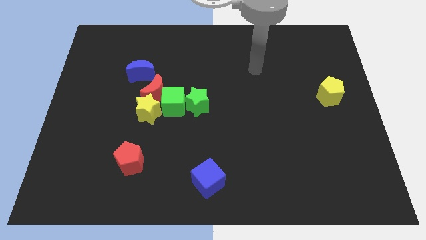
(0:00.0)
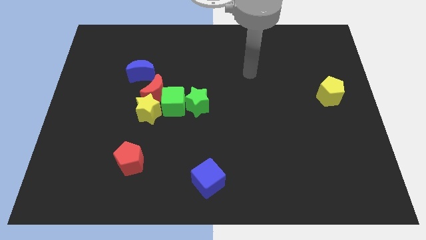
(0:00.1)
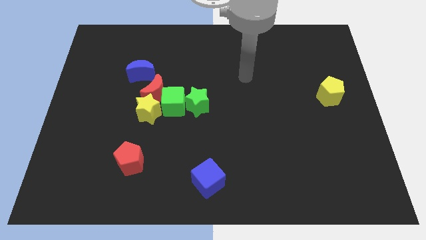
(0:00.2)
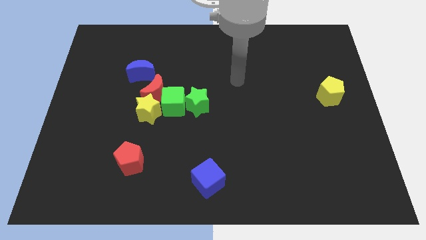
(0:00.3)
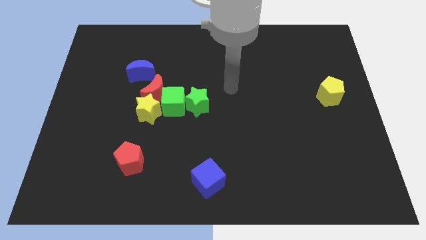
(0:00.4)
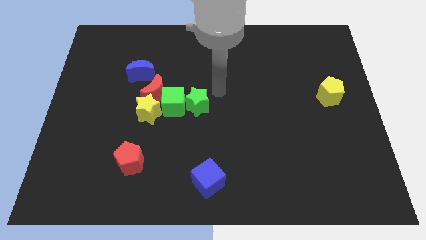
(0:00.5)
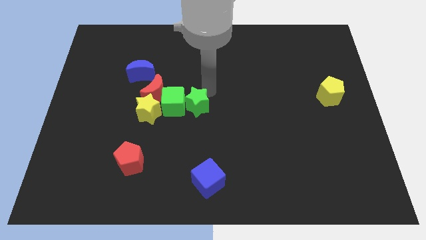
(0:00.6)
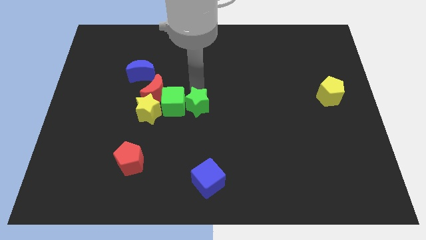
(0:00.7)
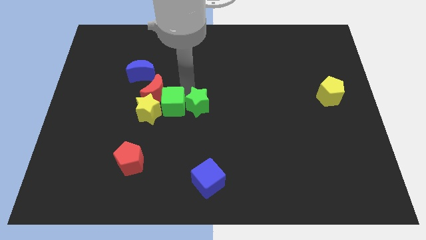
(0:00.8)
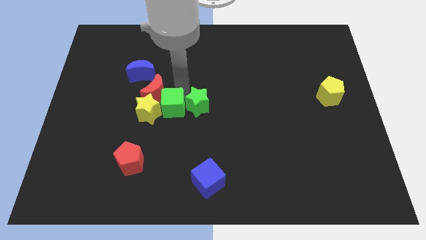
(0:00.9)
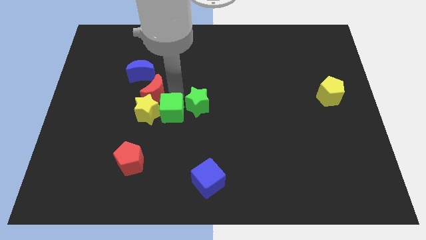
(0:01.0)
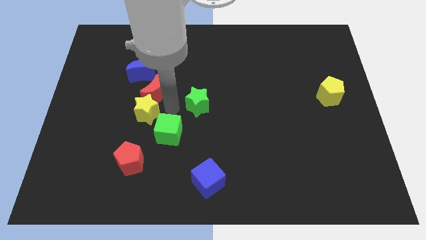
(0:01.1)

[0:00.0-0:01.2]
separate the green star from the green cube

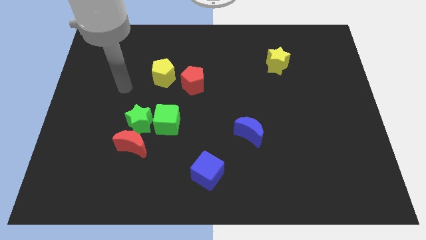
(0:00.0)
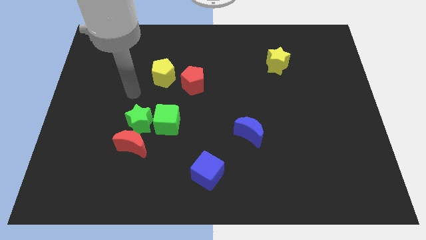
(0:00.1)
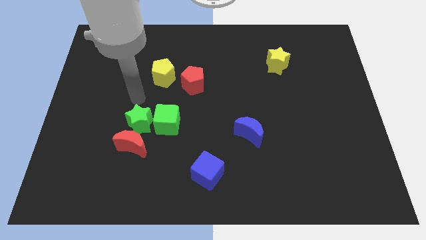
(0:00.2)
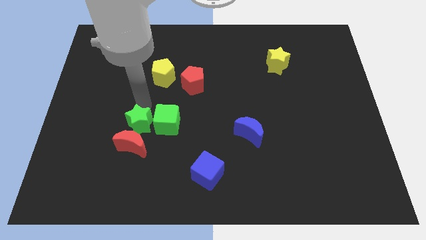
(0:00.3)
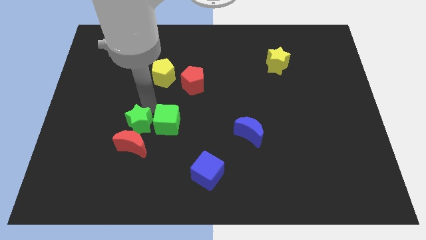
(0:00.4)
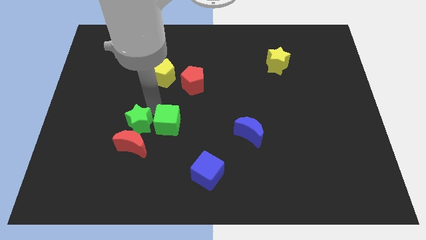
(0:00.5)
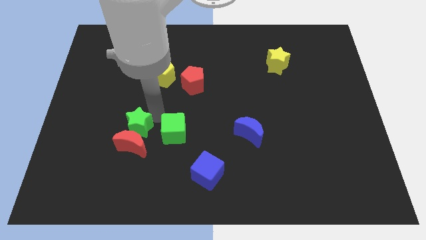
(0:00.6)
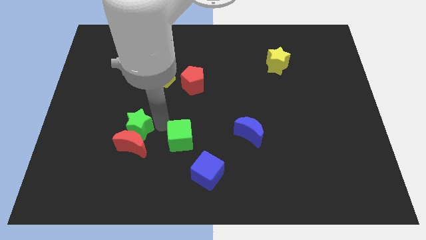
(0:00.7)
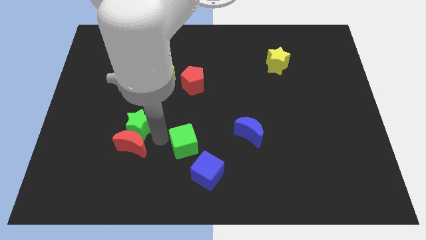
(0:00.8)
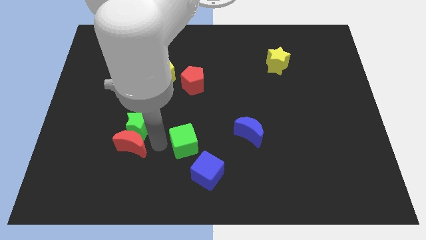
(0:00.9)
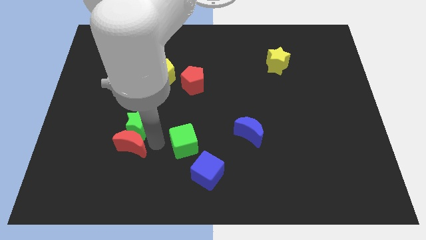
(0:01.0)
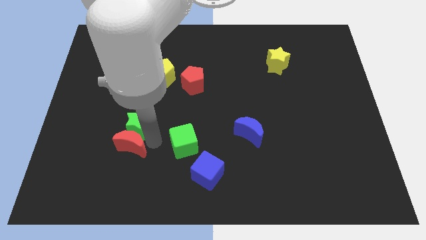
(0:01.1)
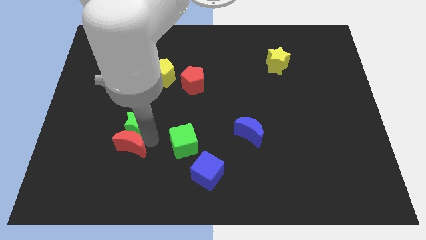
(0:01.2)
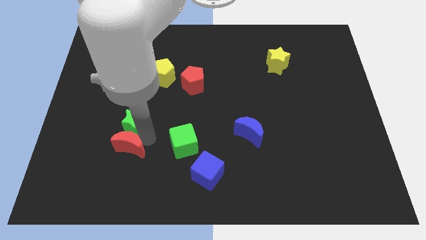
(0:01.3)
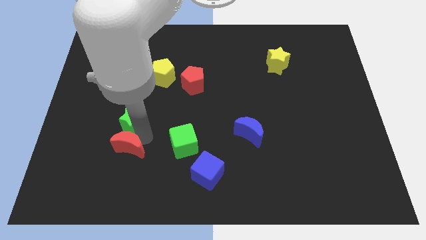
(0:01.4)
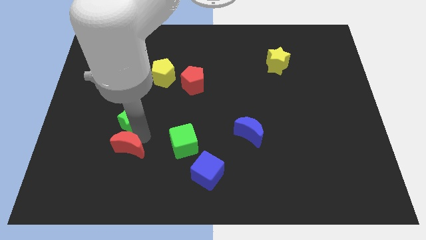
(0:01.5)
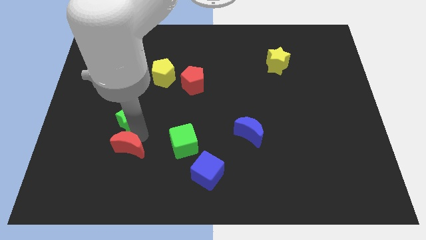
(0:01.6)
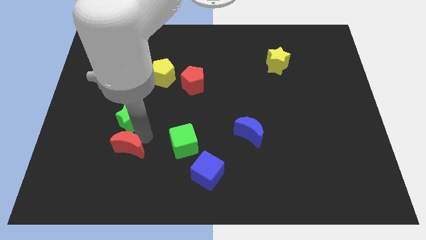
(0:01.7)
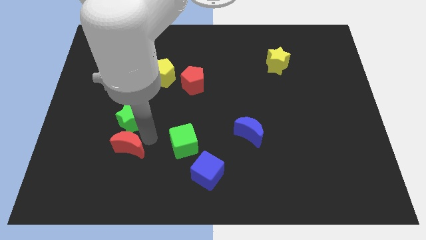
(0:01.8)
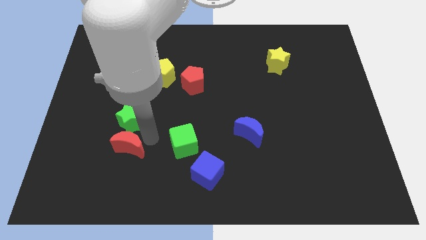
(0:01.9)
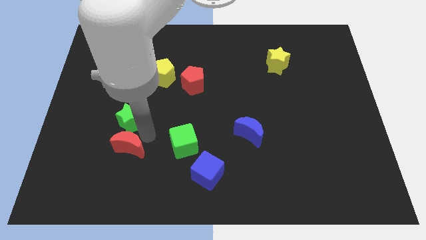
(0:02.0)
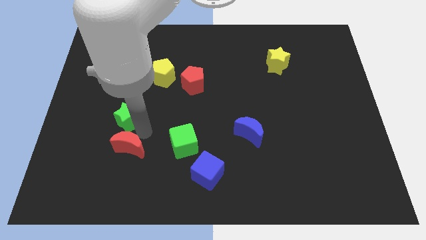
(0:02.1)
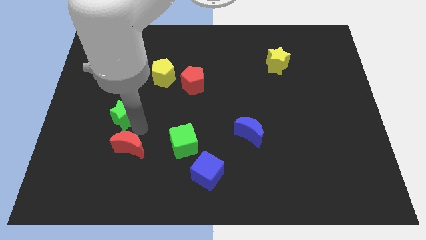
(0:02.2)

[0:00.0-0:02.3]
separate the green star from the green cube and red moon

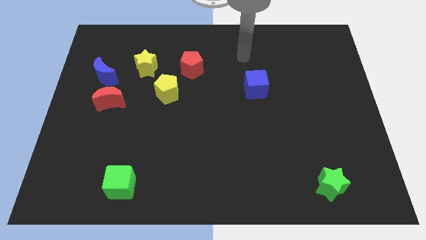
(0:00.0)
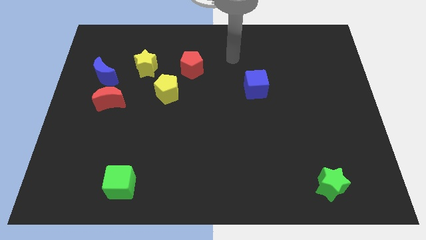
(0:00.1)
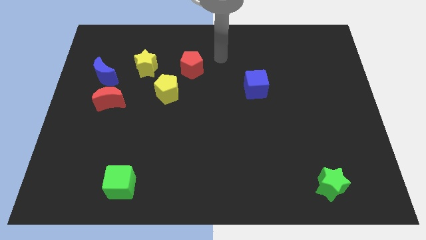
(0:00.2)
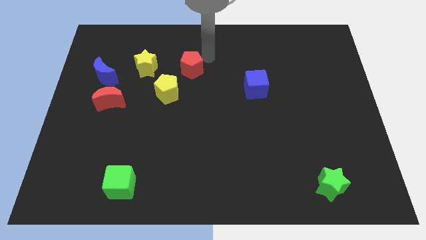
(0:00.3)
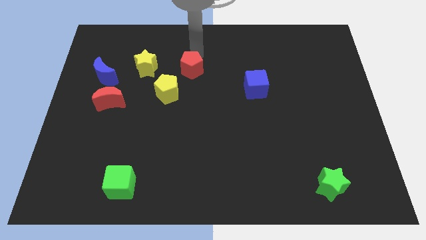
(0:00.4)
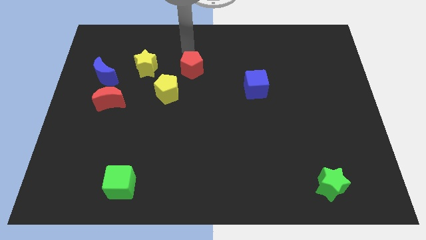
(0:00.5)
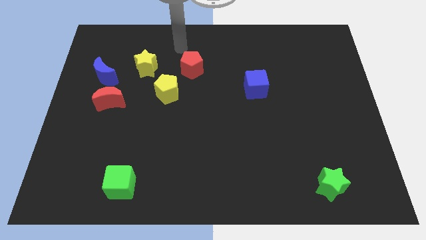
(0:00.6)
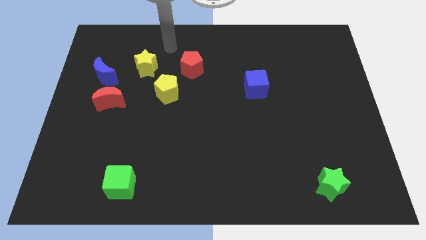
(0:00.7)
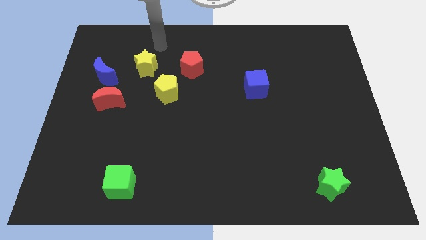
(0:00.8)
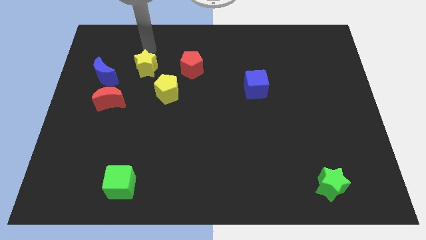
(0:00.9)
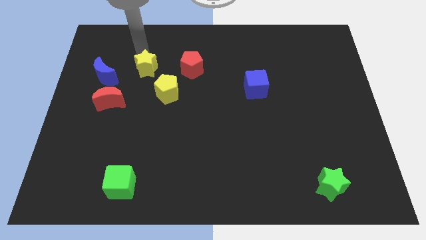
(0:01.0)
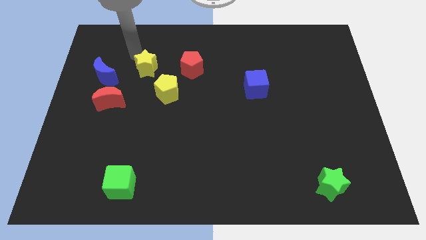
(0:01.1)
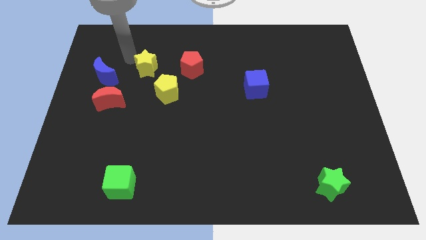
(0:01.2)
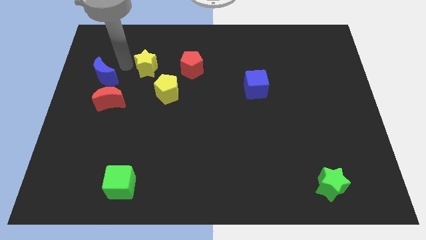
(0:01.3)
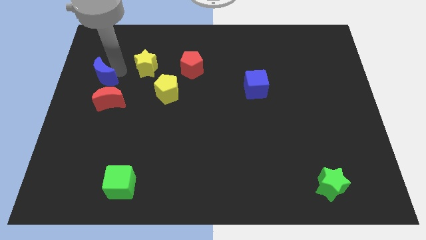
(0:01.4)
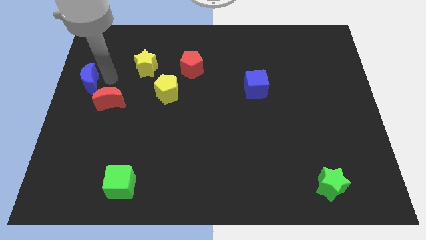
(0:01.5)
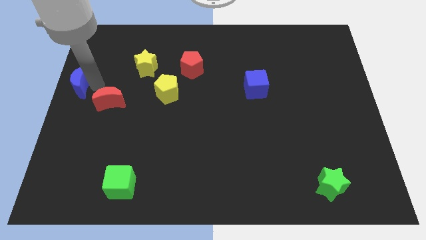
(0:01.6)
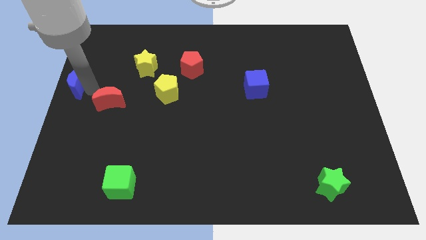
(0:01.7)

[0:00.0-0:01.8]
pull the red moon apart from the blue moon

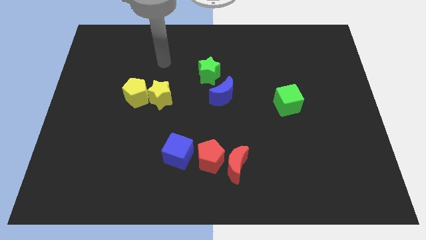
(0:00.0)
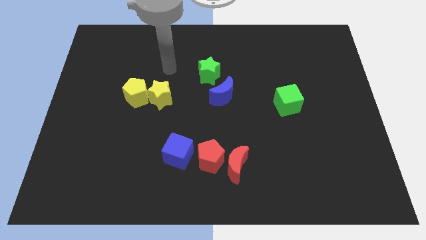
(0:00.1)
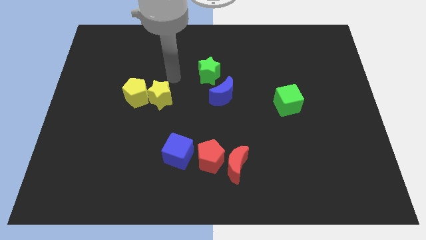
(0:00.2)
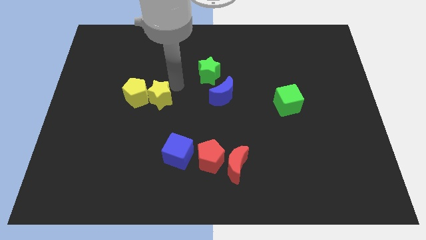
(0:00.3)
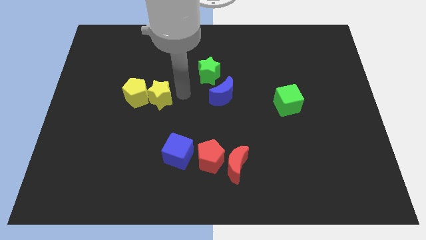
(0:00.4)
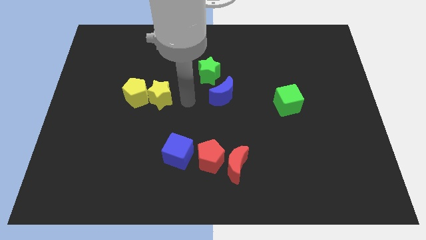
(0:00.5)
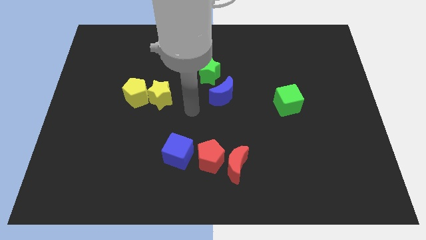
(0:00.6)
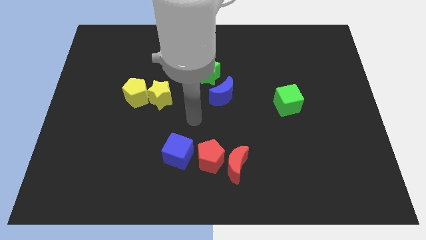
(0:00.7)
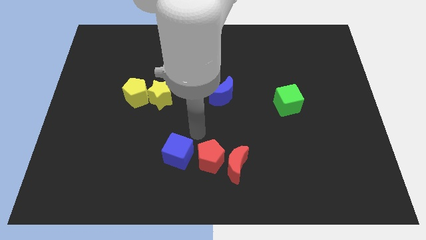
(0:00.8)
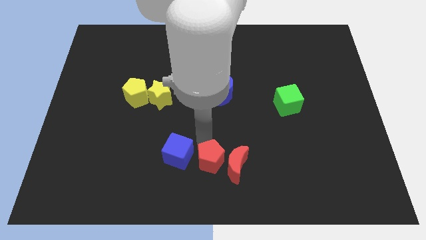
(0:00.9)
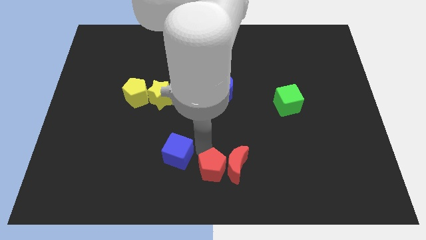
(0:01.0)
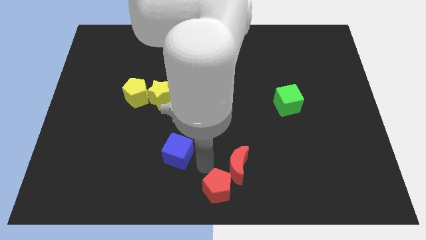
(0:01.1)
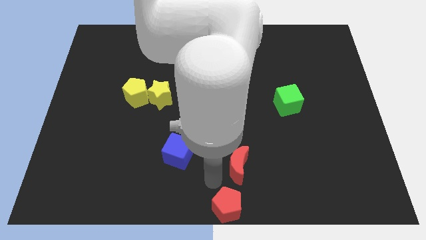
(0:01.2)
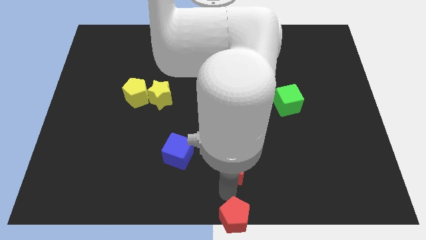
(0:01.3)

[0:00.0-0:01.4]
separate the red moon from the red pentagon

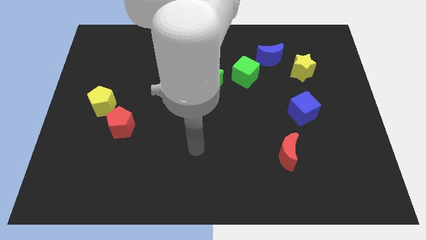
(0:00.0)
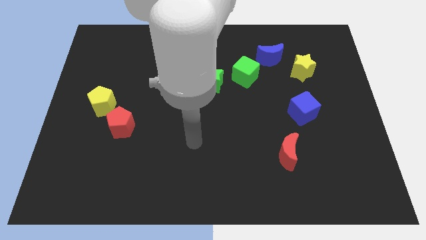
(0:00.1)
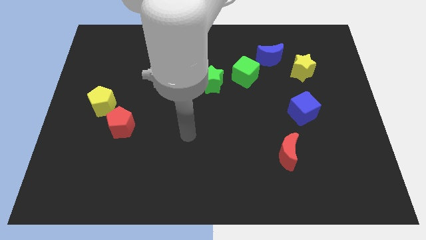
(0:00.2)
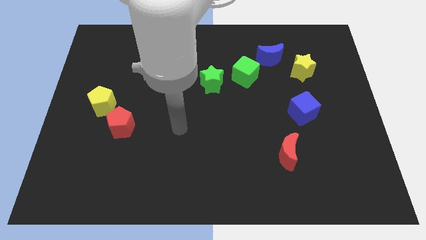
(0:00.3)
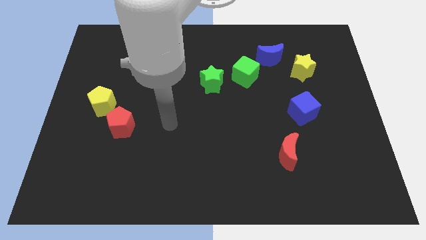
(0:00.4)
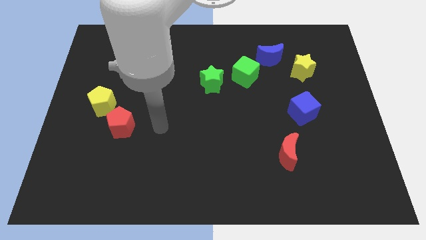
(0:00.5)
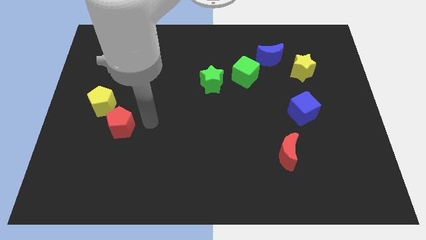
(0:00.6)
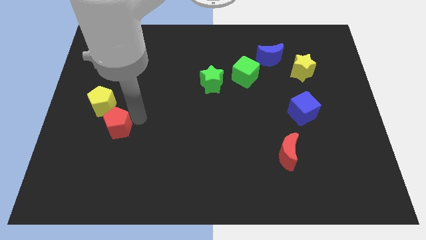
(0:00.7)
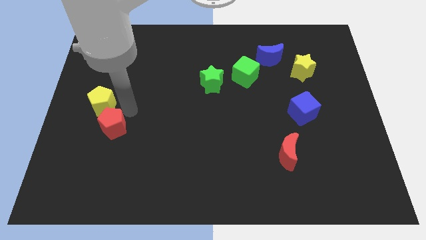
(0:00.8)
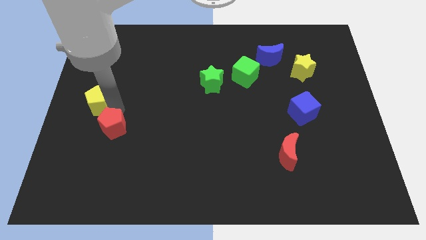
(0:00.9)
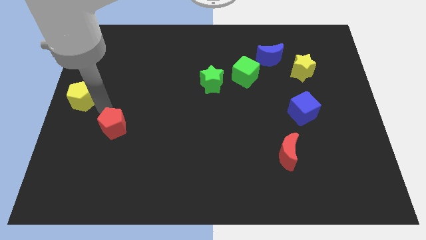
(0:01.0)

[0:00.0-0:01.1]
separate the red pentagon from the yellow pentagon

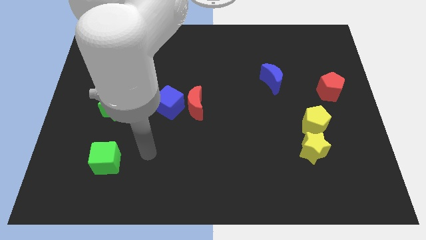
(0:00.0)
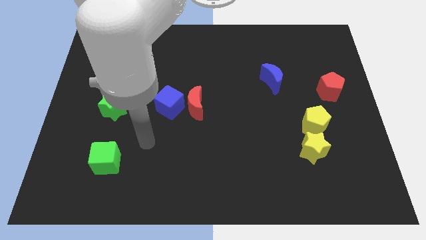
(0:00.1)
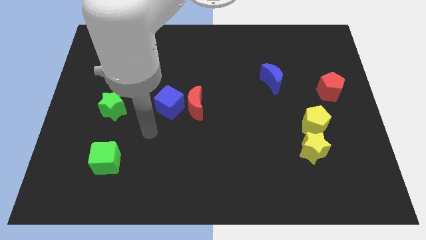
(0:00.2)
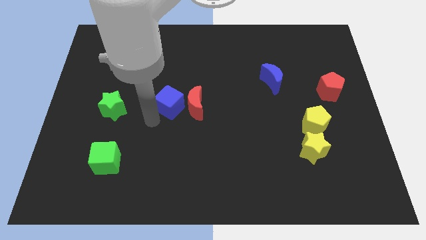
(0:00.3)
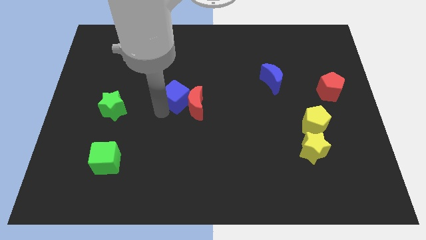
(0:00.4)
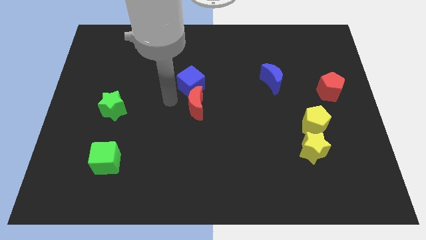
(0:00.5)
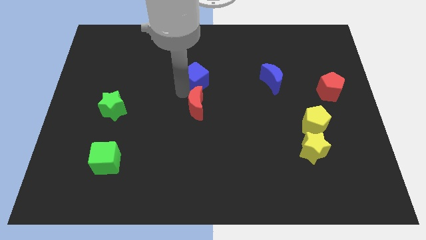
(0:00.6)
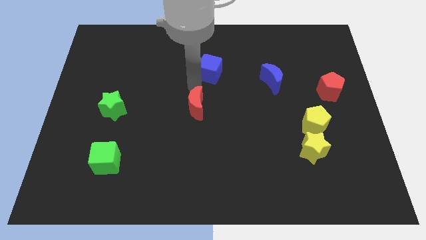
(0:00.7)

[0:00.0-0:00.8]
move the red moon away from the blue cube

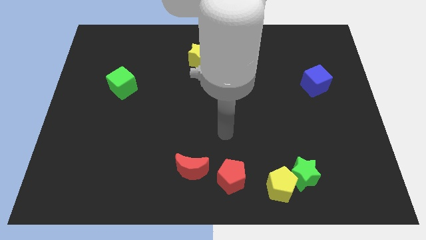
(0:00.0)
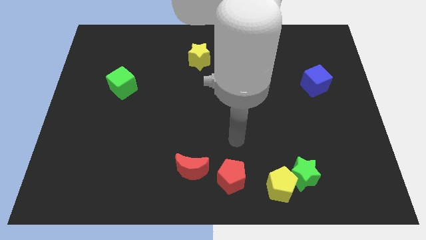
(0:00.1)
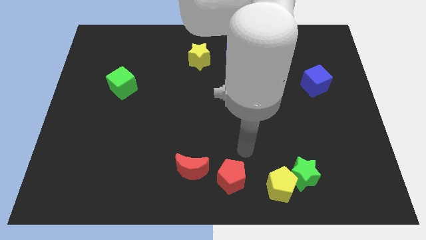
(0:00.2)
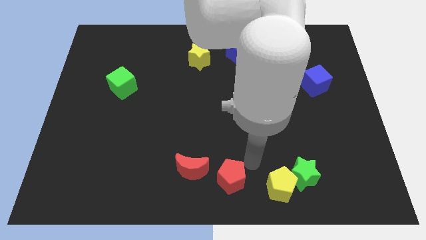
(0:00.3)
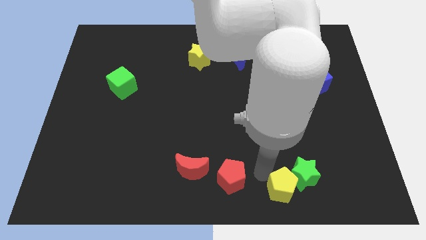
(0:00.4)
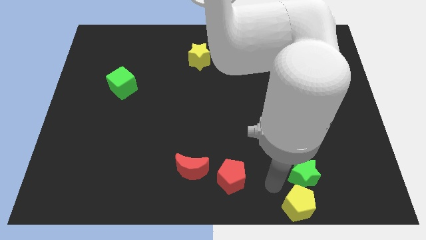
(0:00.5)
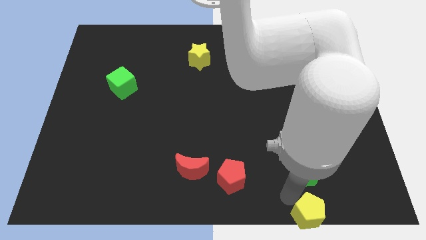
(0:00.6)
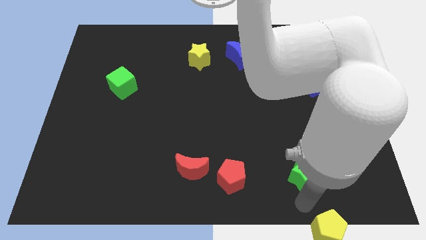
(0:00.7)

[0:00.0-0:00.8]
separate the green star from the yellow pentagon
